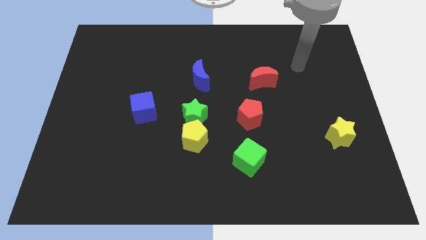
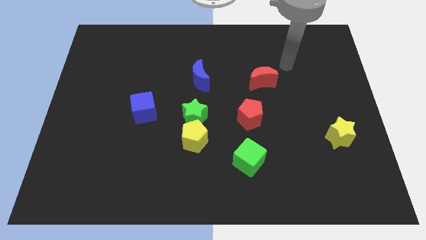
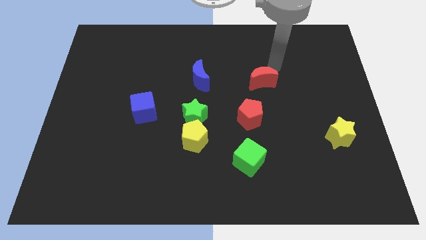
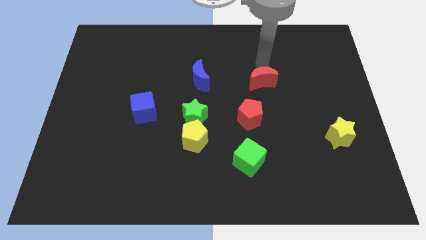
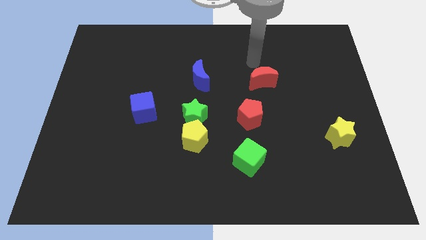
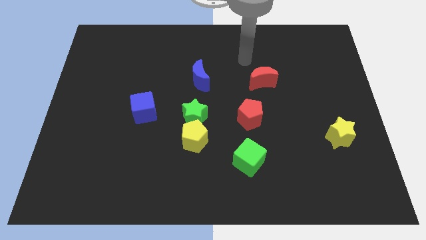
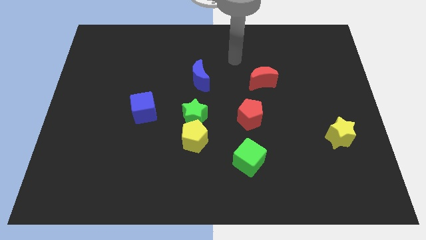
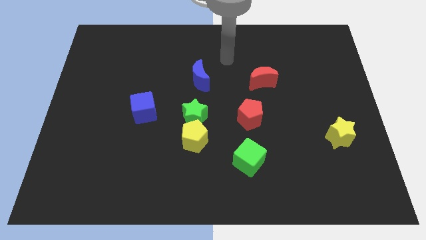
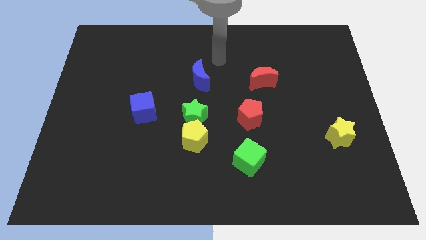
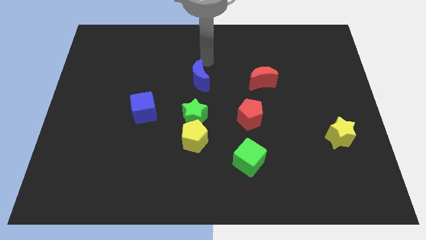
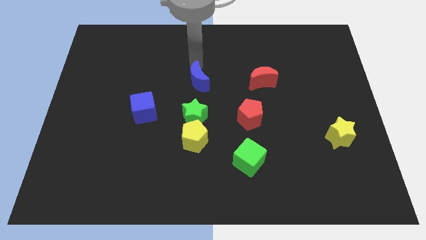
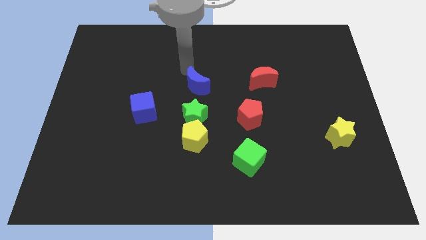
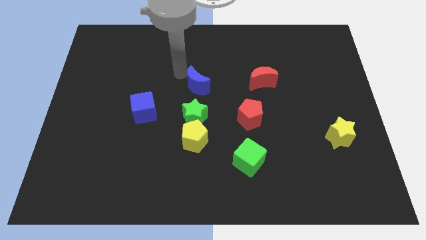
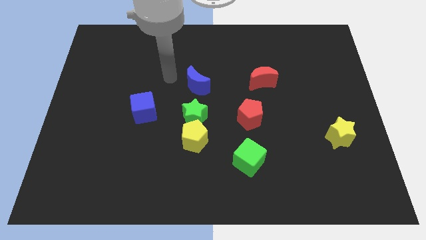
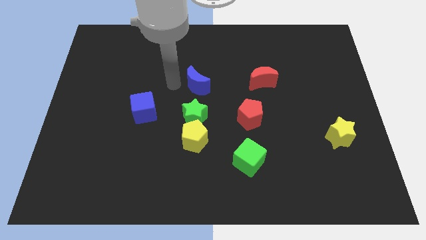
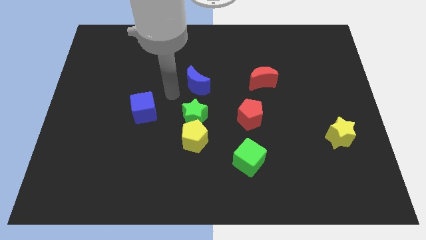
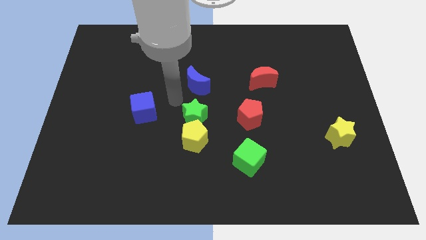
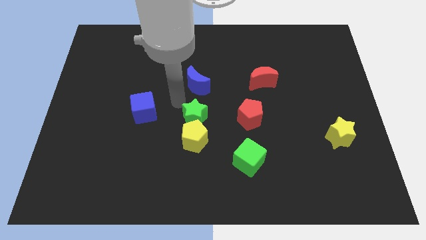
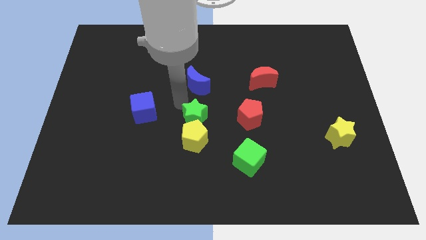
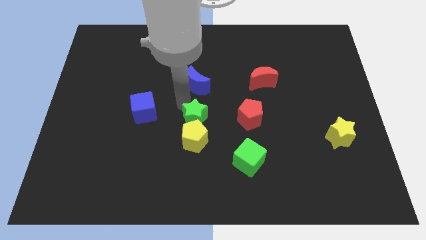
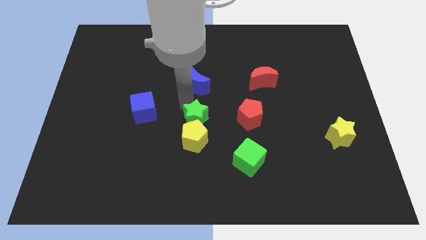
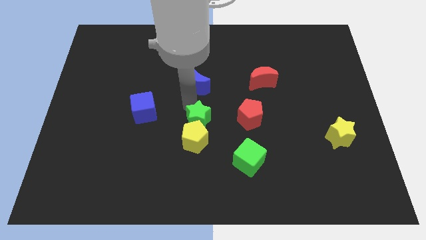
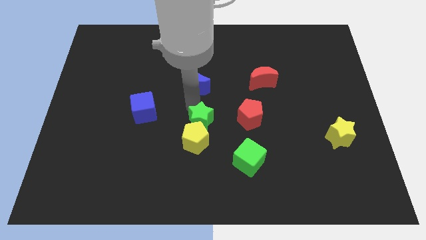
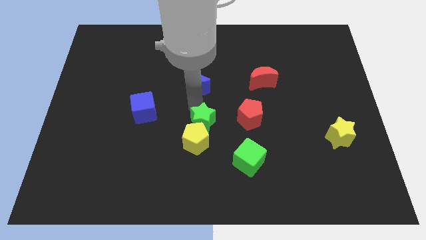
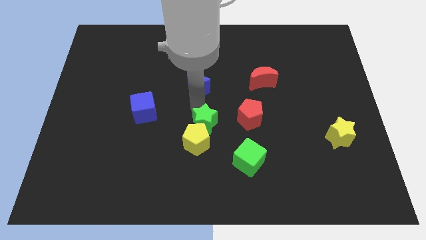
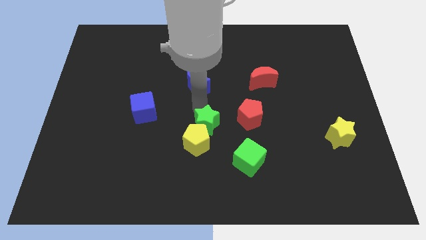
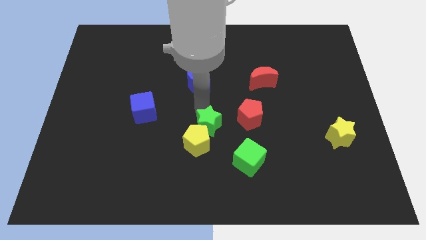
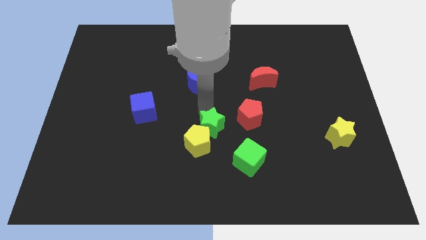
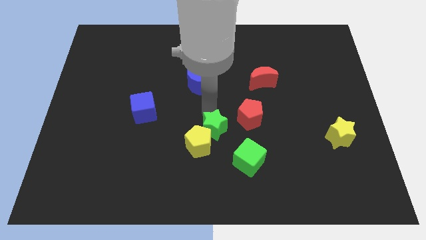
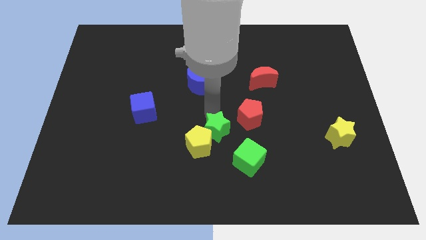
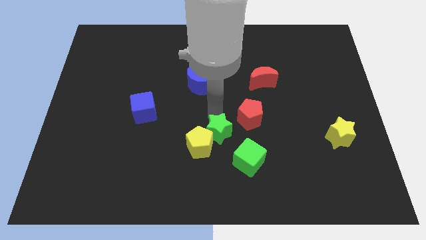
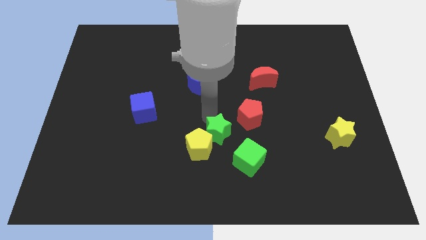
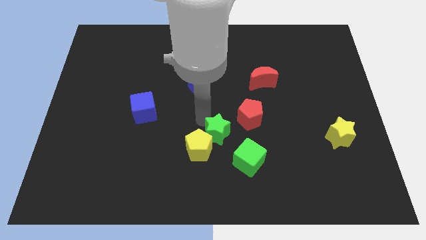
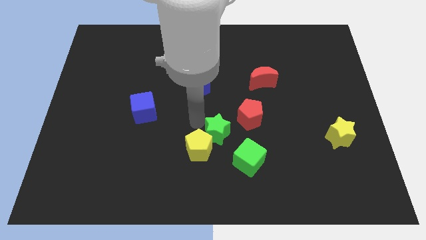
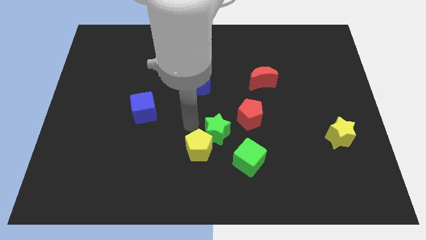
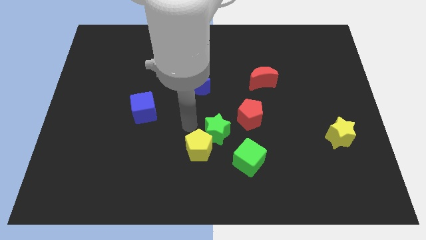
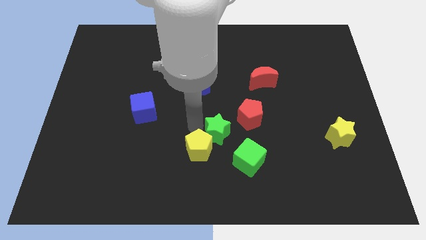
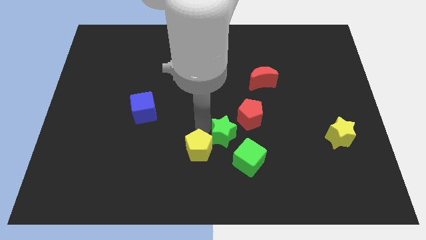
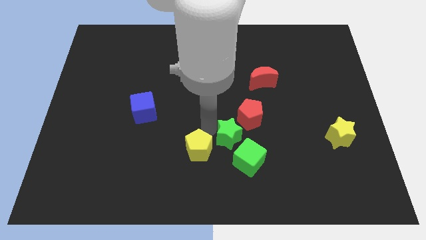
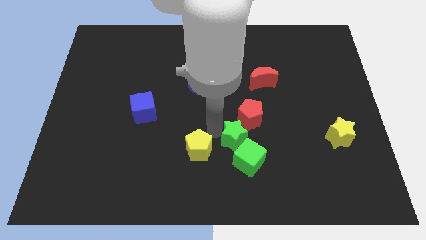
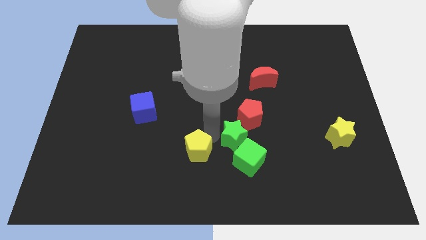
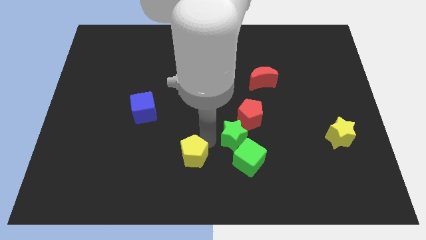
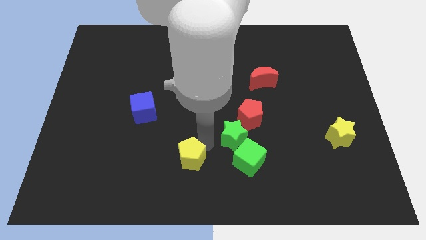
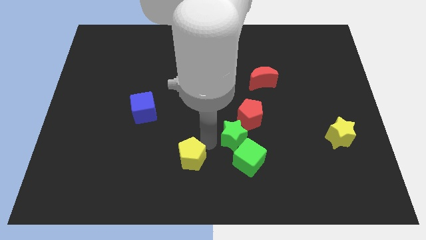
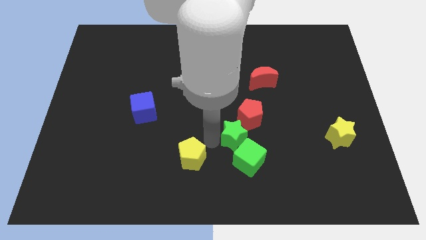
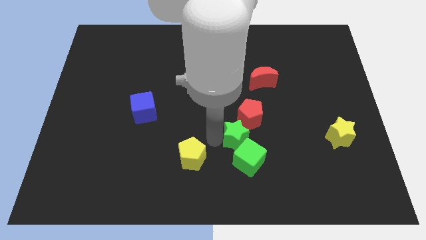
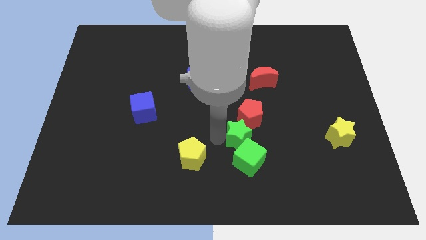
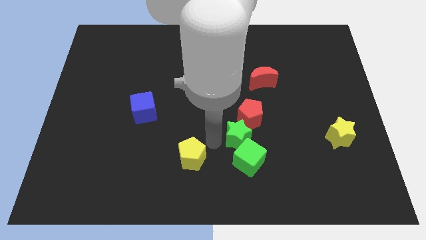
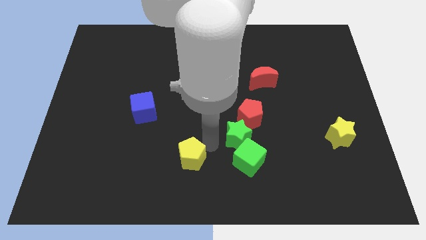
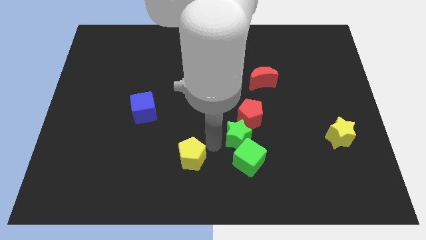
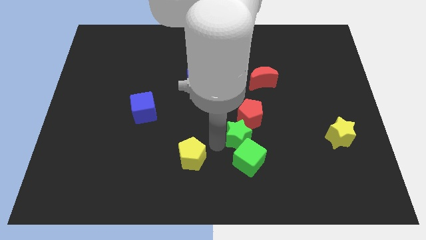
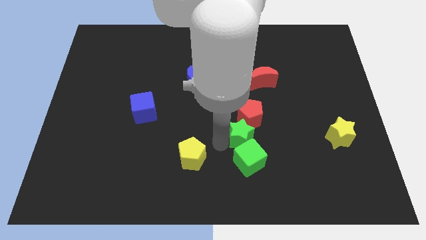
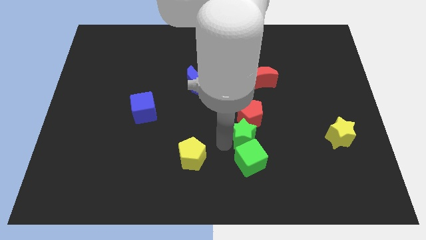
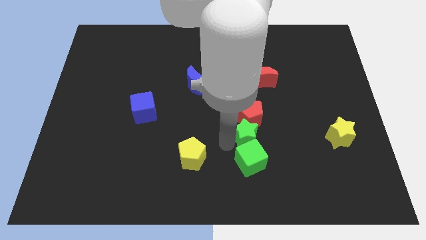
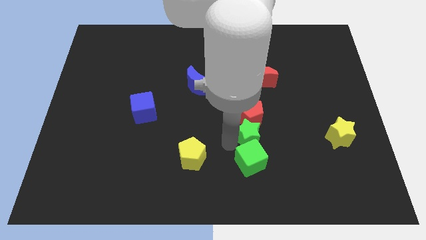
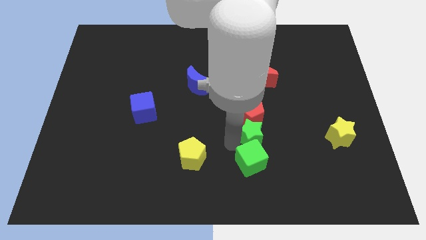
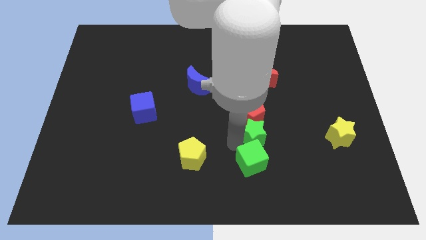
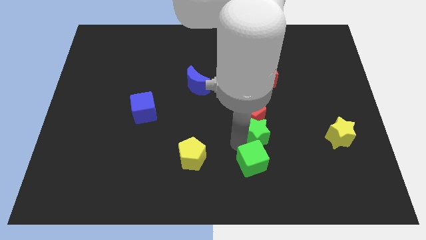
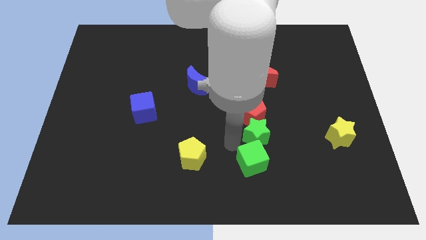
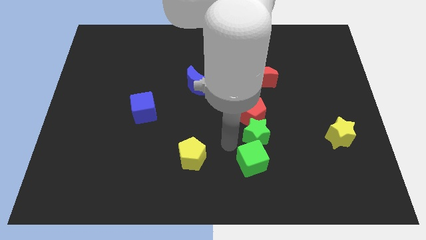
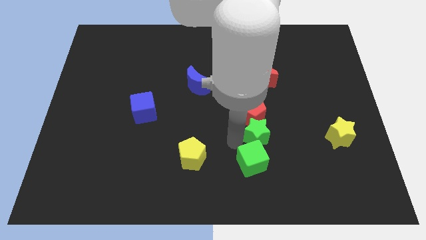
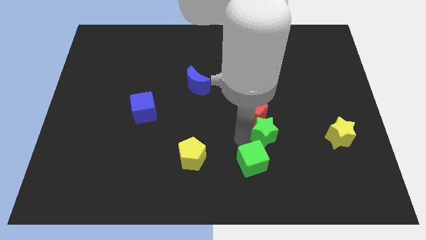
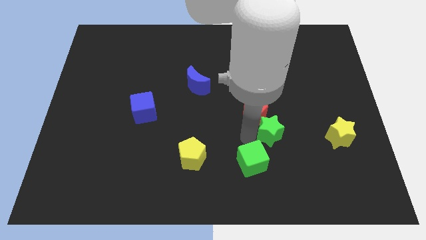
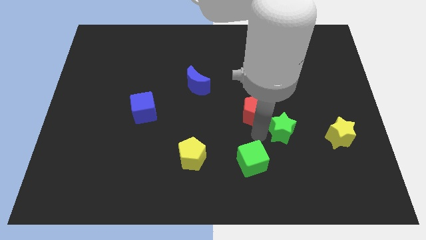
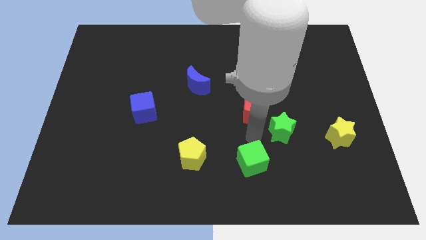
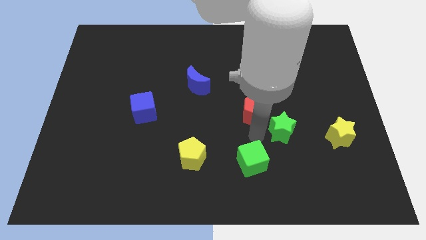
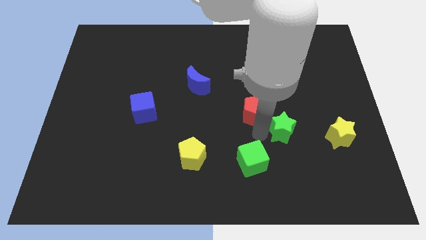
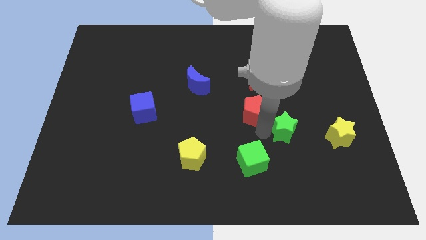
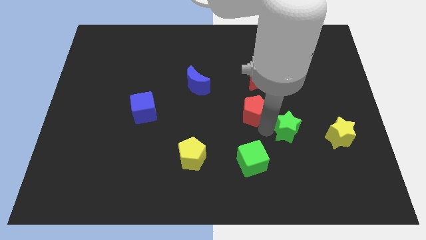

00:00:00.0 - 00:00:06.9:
slide the green star to the right

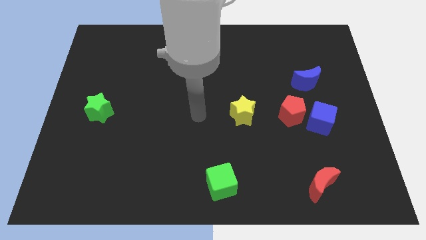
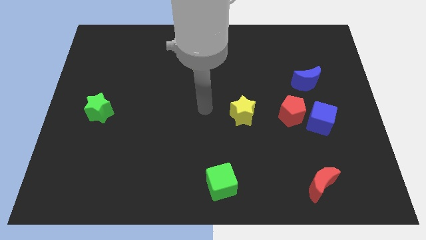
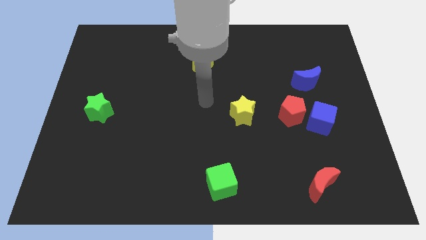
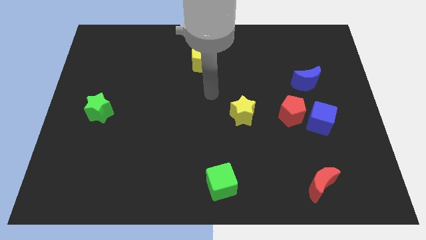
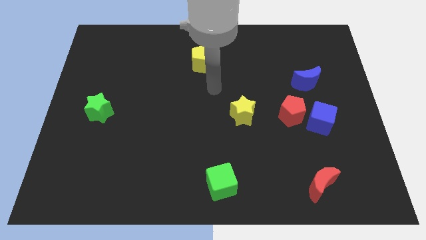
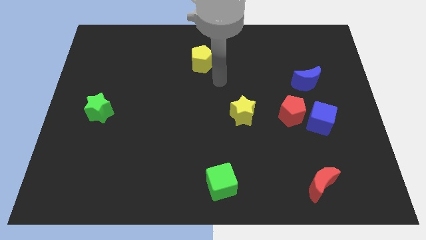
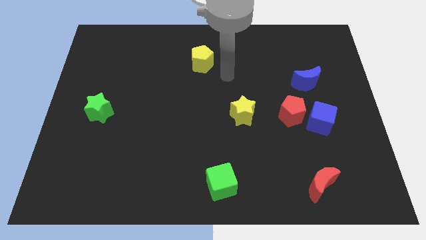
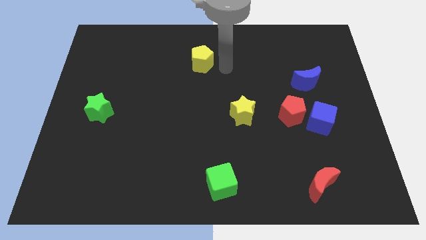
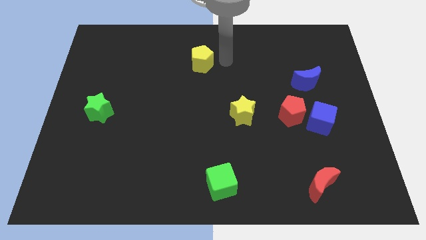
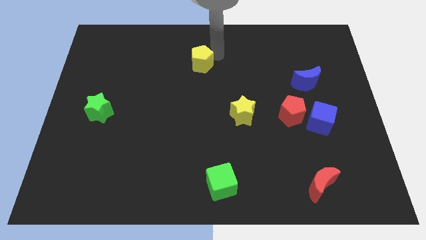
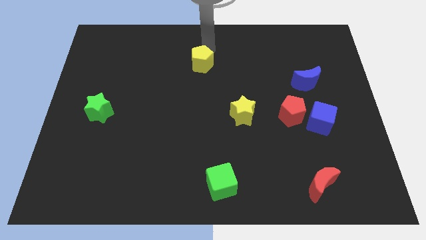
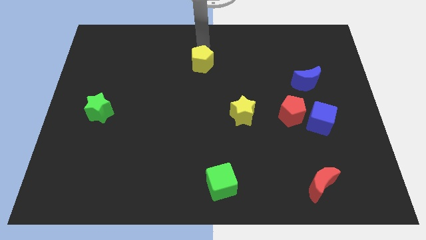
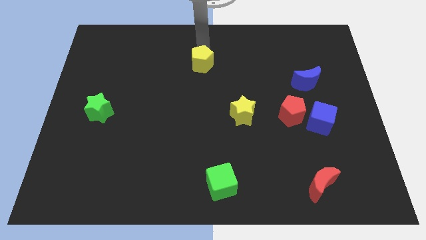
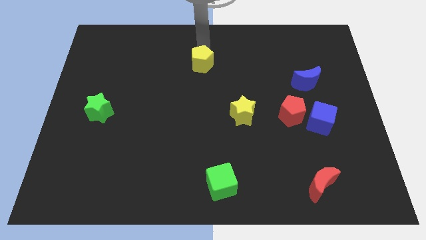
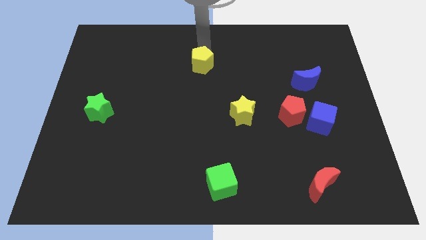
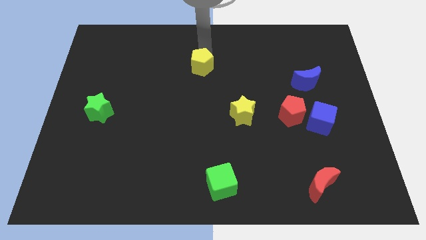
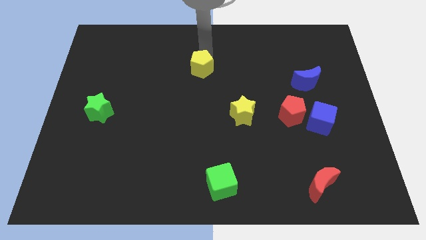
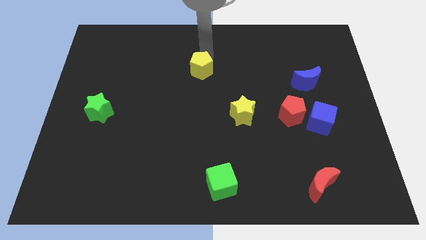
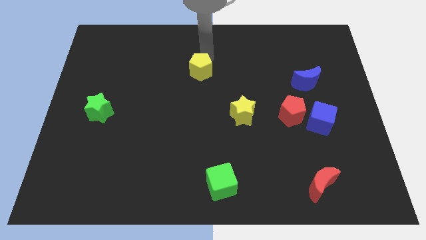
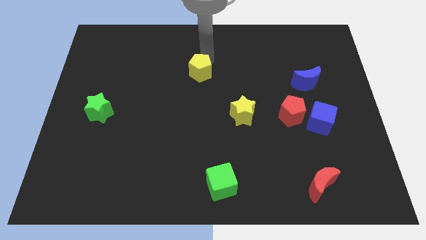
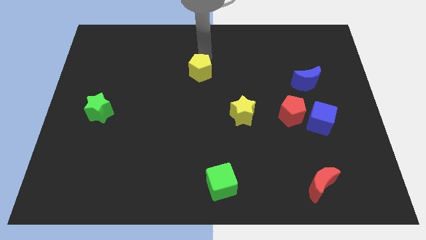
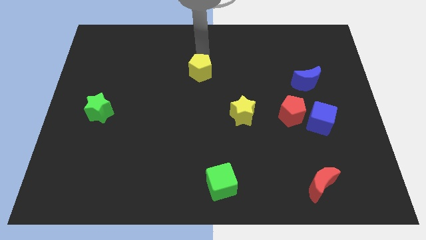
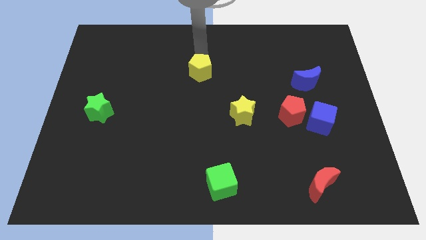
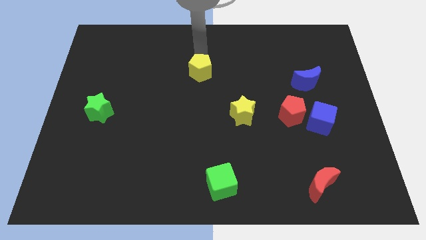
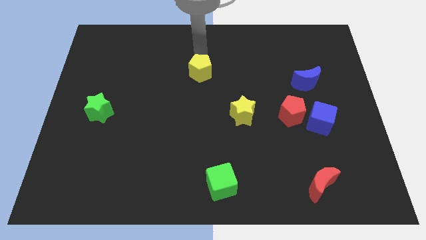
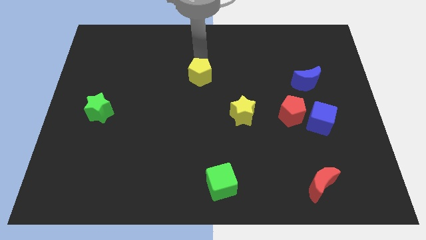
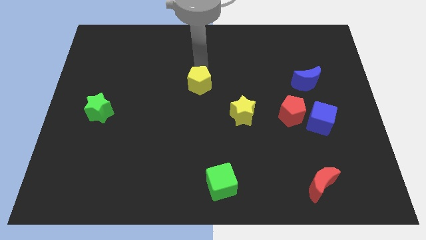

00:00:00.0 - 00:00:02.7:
slide the yellow pentagon somewhat down
